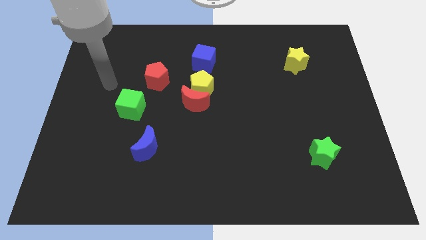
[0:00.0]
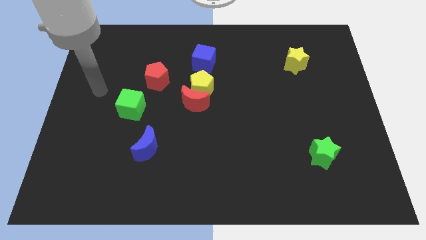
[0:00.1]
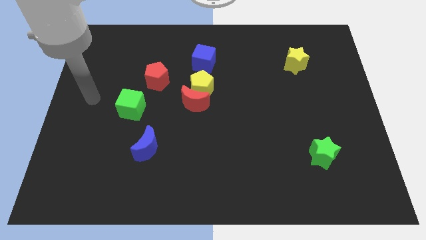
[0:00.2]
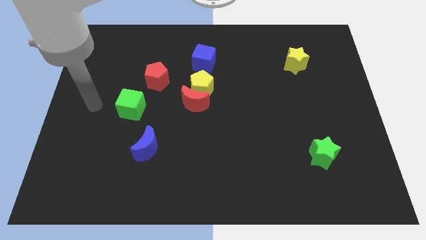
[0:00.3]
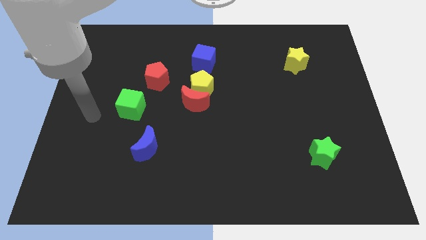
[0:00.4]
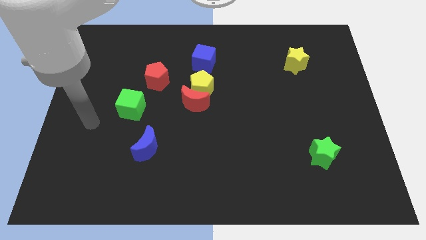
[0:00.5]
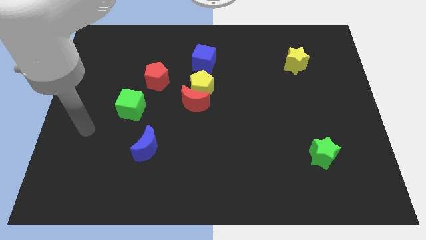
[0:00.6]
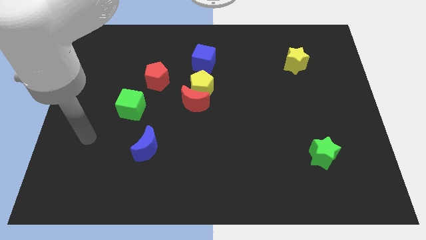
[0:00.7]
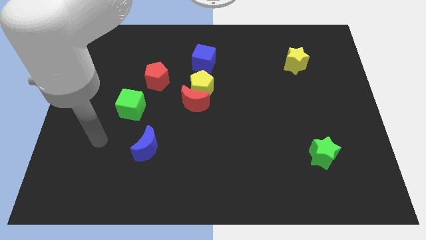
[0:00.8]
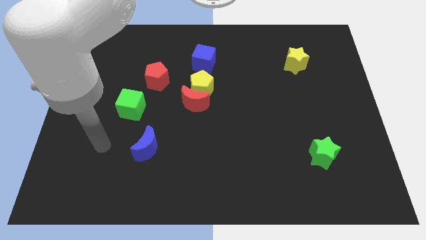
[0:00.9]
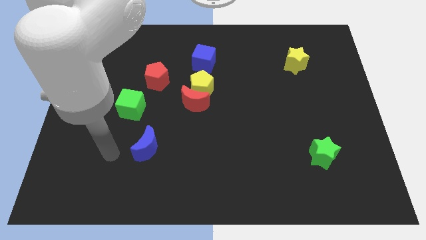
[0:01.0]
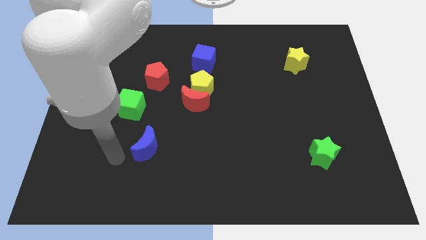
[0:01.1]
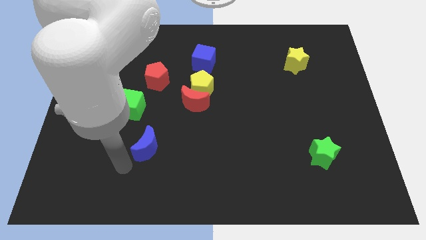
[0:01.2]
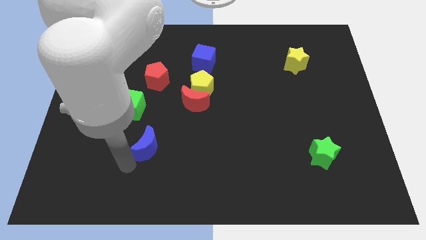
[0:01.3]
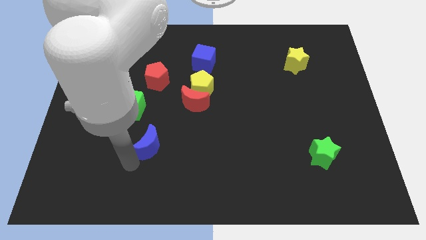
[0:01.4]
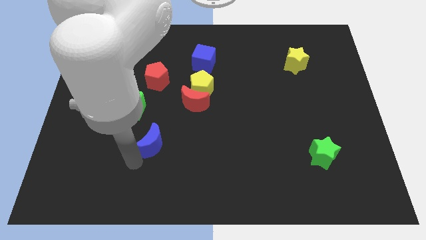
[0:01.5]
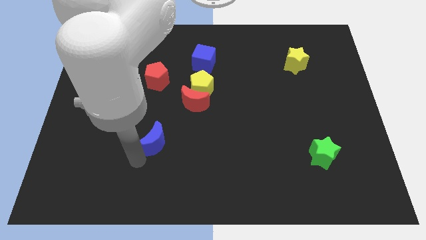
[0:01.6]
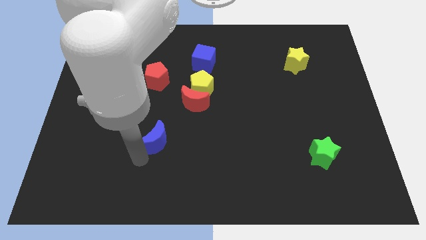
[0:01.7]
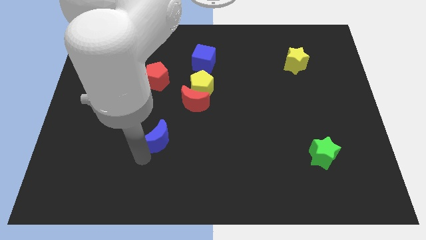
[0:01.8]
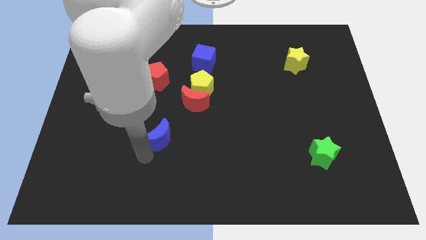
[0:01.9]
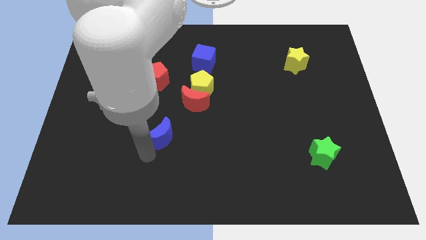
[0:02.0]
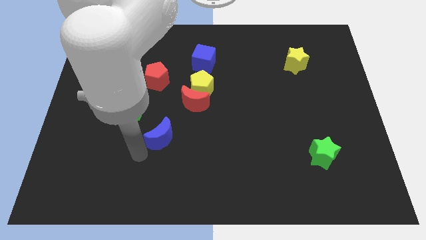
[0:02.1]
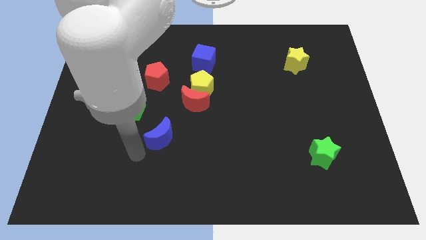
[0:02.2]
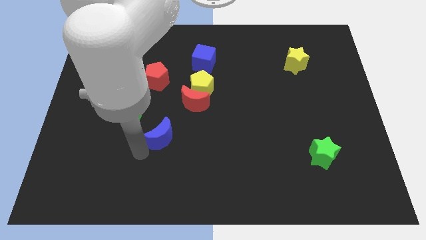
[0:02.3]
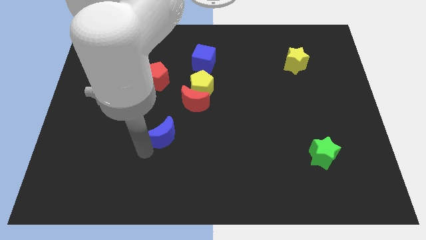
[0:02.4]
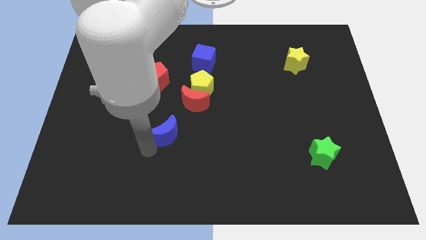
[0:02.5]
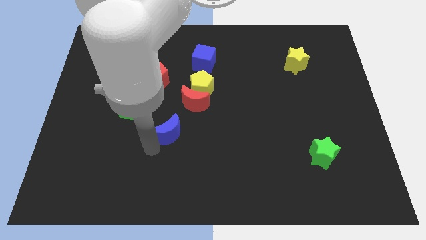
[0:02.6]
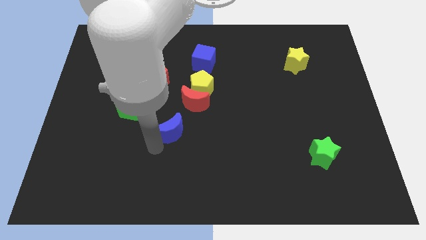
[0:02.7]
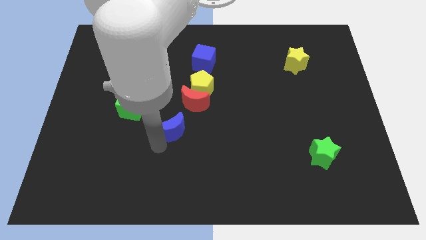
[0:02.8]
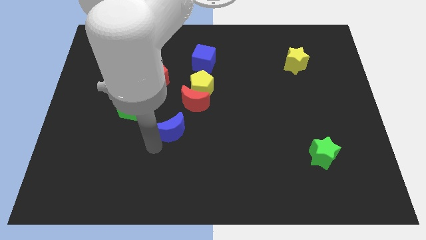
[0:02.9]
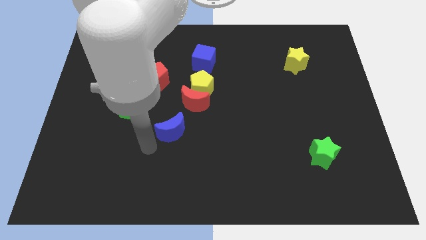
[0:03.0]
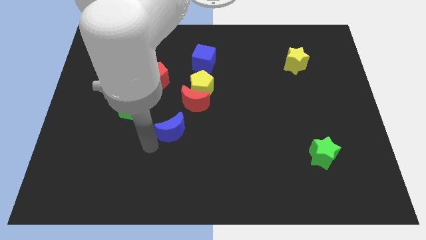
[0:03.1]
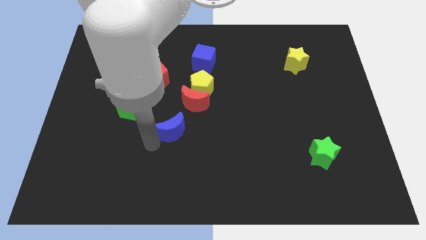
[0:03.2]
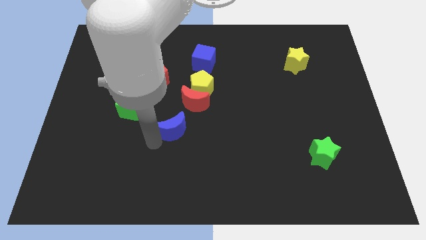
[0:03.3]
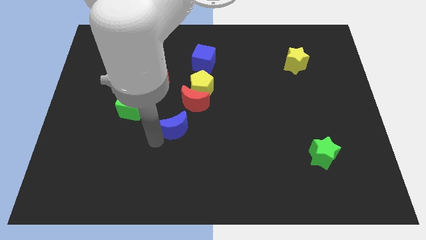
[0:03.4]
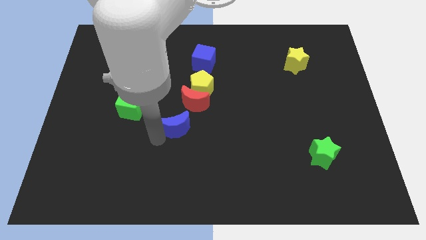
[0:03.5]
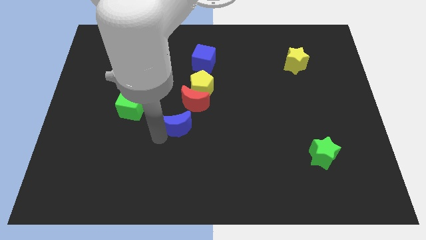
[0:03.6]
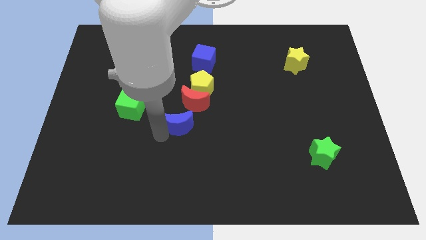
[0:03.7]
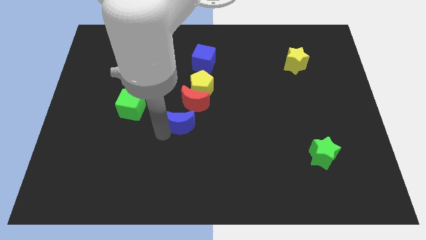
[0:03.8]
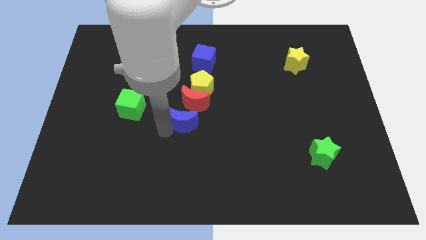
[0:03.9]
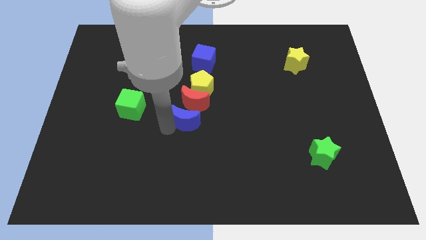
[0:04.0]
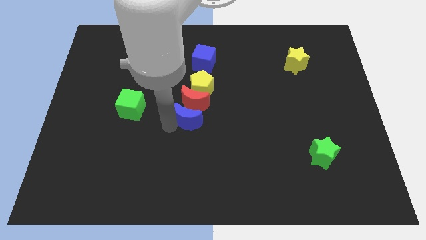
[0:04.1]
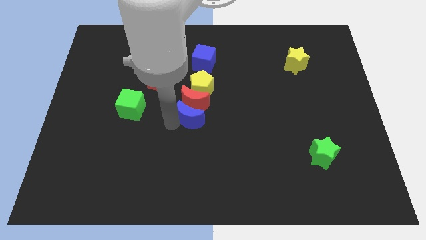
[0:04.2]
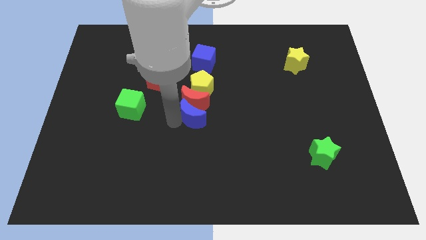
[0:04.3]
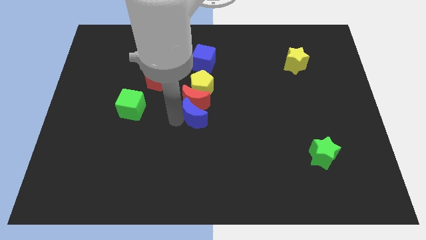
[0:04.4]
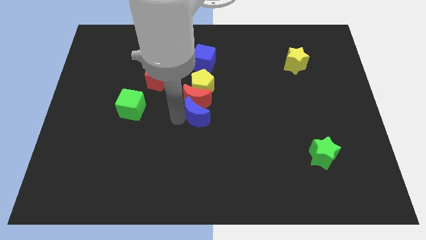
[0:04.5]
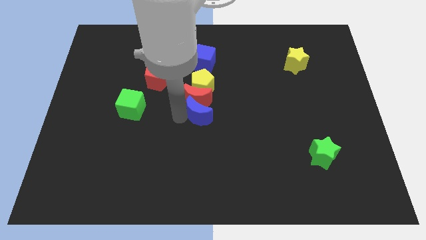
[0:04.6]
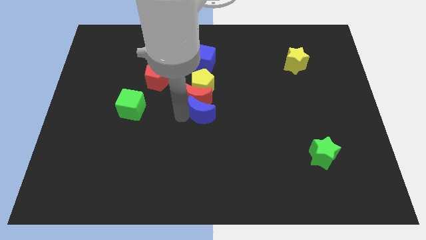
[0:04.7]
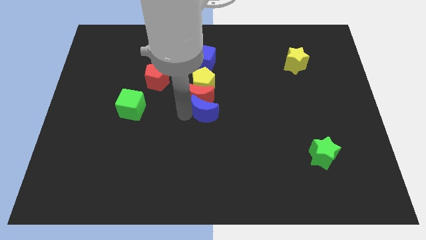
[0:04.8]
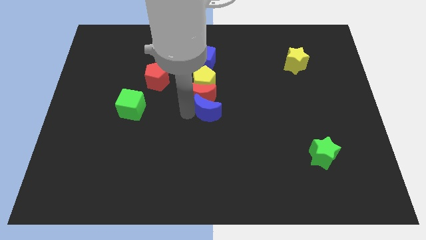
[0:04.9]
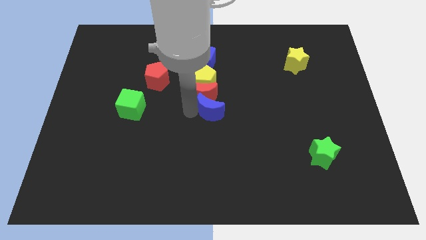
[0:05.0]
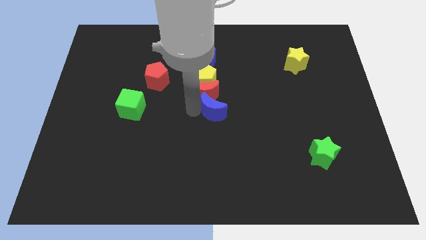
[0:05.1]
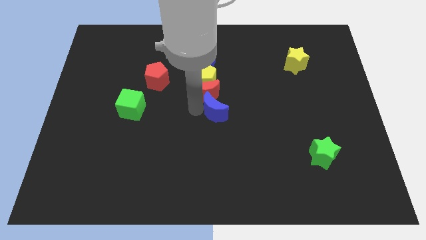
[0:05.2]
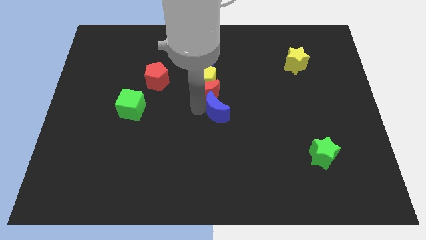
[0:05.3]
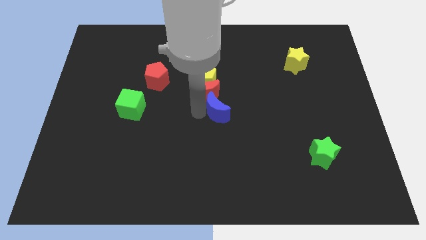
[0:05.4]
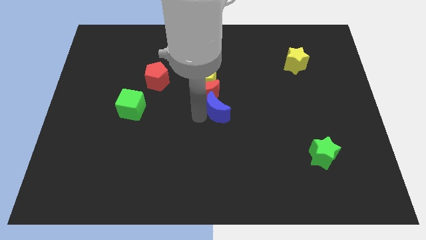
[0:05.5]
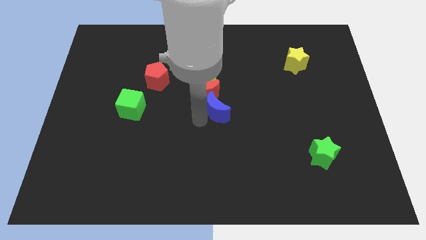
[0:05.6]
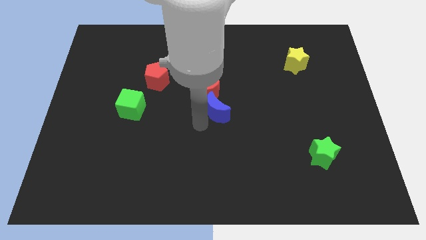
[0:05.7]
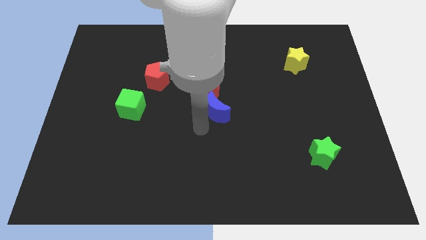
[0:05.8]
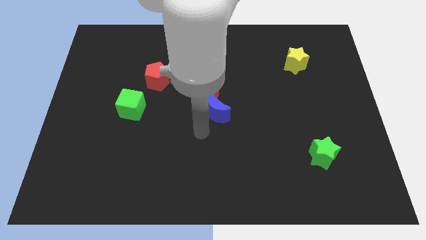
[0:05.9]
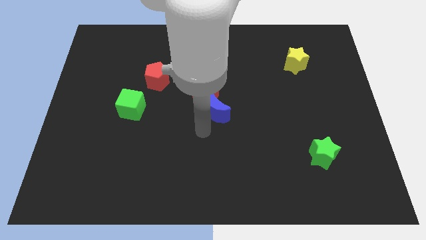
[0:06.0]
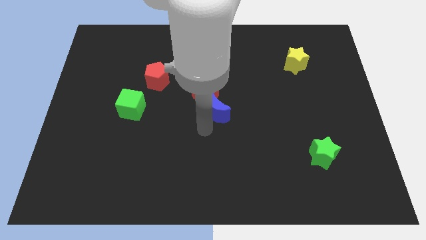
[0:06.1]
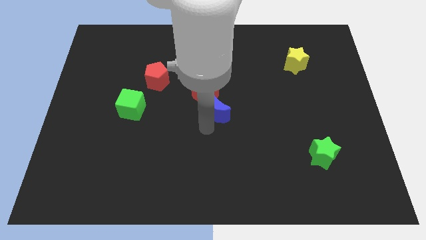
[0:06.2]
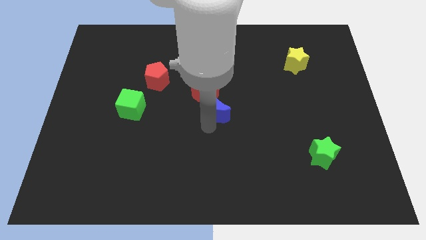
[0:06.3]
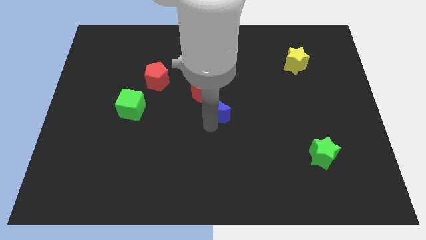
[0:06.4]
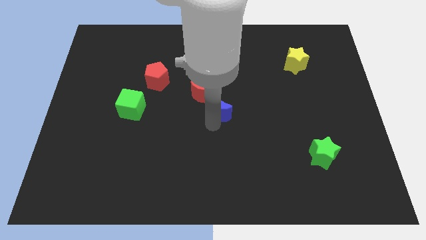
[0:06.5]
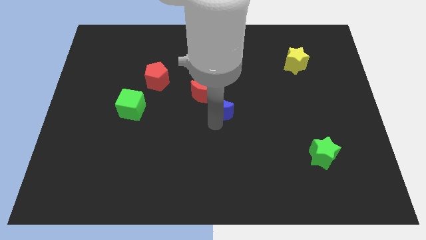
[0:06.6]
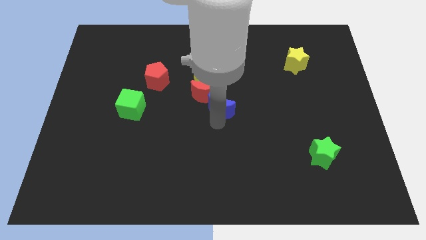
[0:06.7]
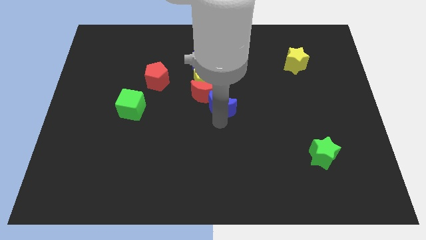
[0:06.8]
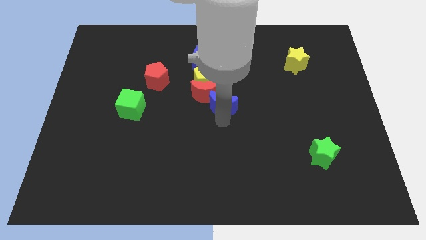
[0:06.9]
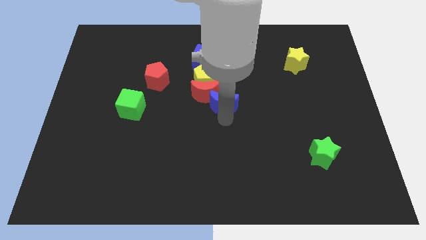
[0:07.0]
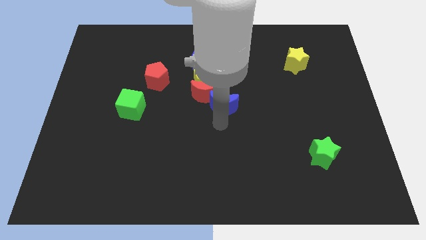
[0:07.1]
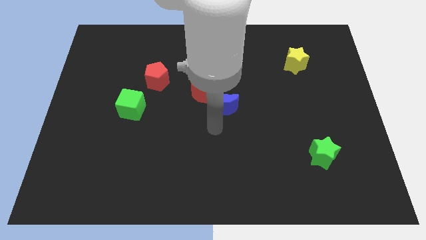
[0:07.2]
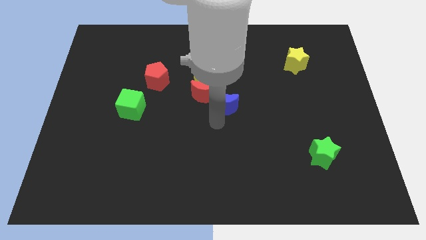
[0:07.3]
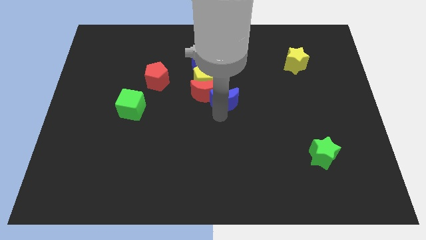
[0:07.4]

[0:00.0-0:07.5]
slide the blue moon diagonally up and right

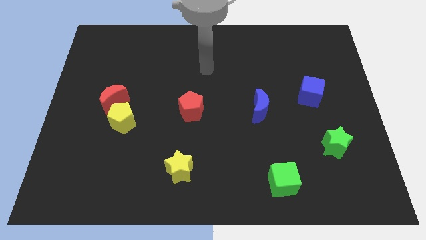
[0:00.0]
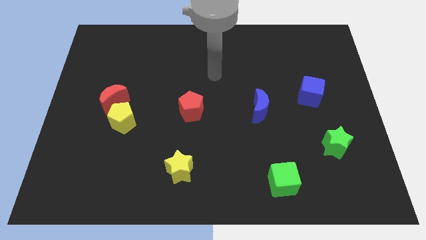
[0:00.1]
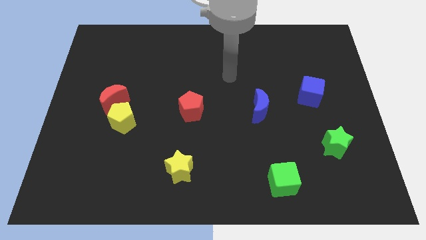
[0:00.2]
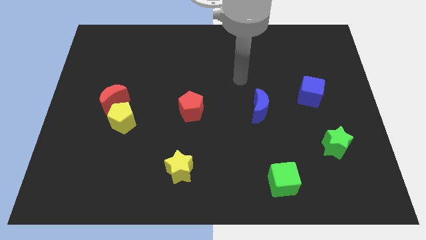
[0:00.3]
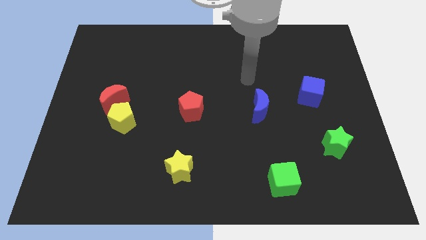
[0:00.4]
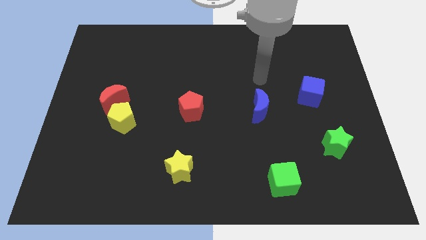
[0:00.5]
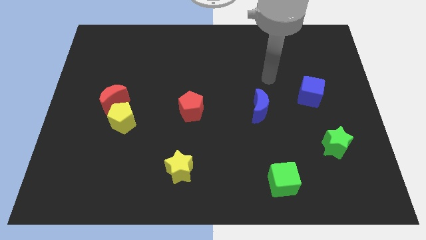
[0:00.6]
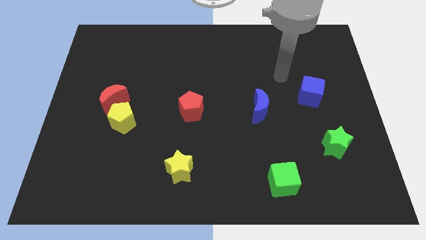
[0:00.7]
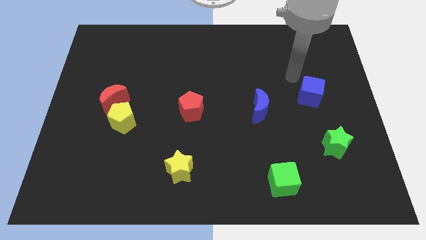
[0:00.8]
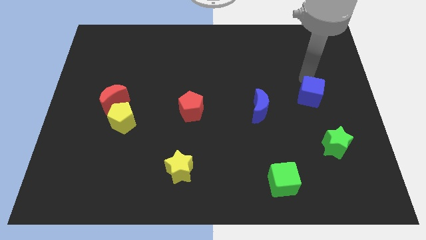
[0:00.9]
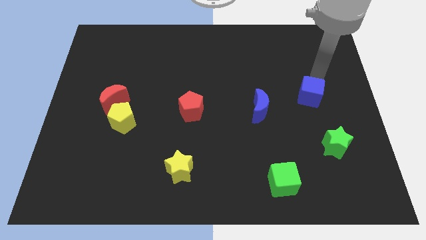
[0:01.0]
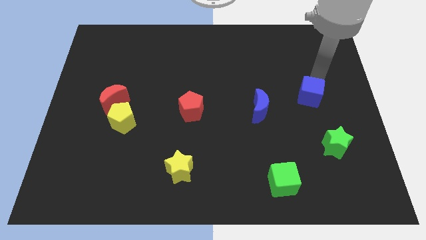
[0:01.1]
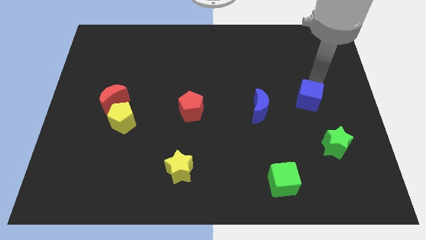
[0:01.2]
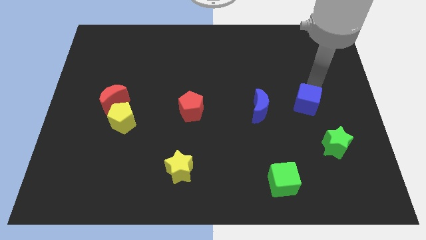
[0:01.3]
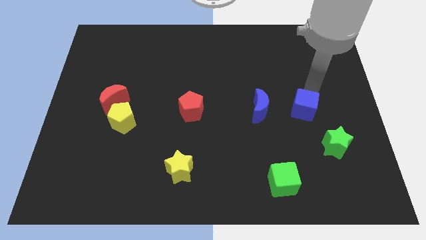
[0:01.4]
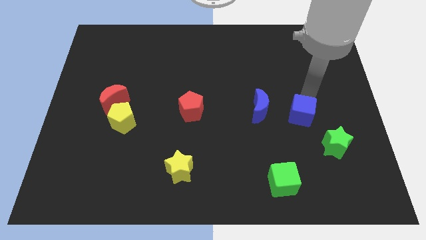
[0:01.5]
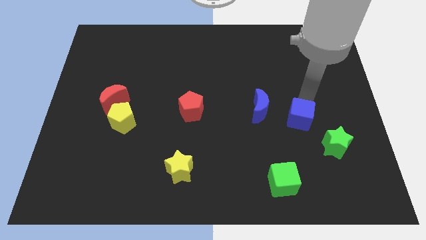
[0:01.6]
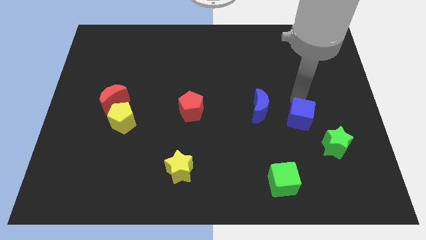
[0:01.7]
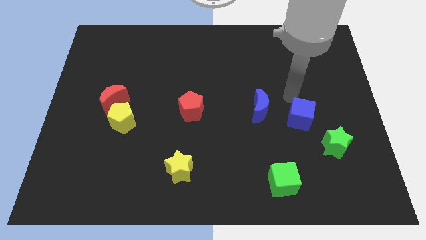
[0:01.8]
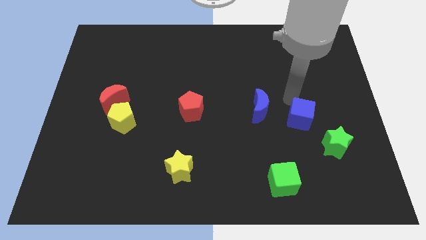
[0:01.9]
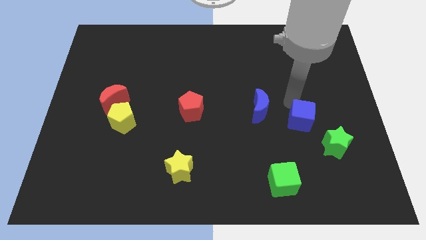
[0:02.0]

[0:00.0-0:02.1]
push the blue cube downwards a little bit
